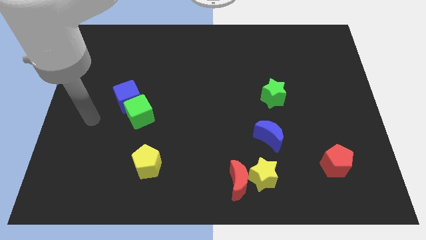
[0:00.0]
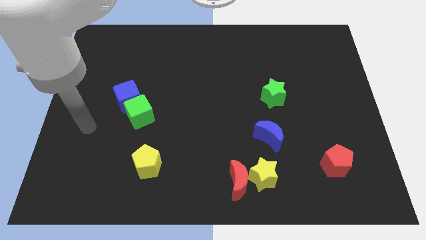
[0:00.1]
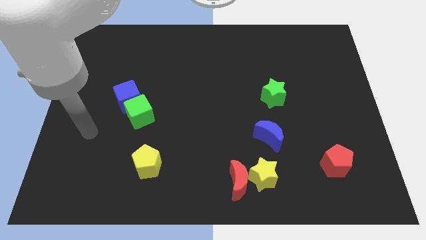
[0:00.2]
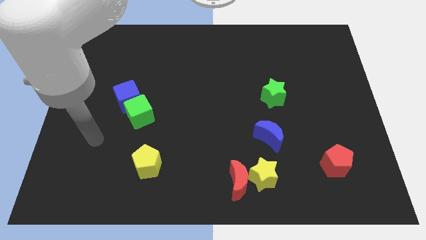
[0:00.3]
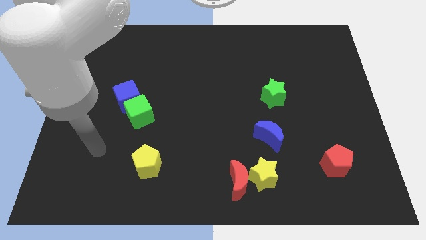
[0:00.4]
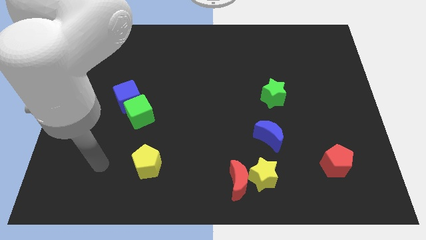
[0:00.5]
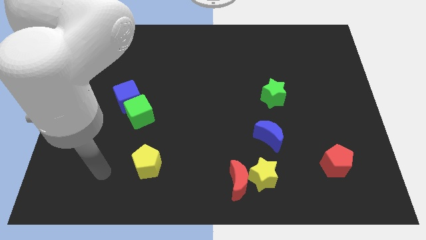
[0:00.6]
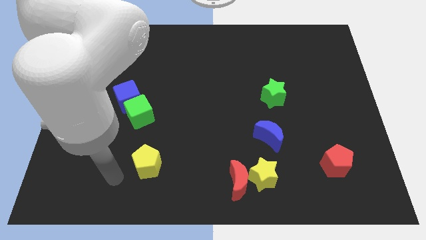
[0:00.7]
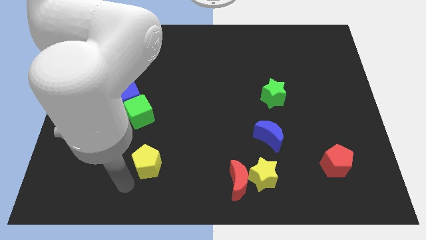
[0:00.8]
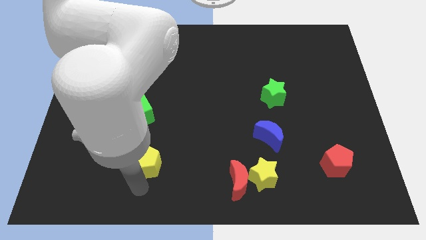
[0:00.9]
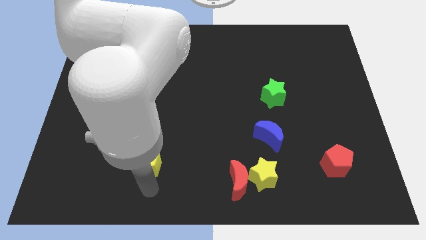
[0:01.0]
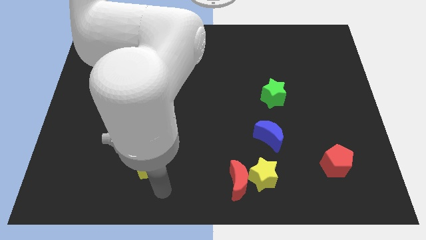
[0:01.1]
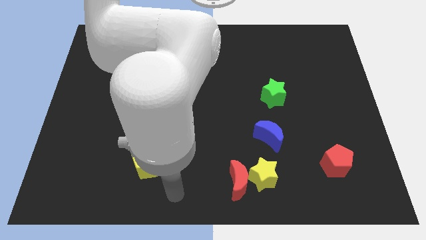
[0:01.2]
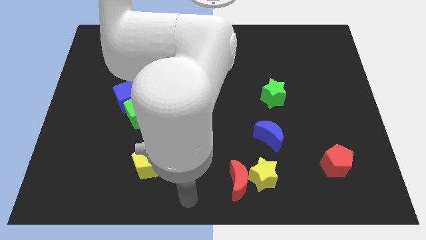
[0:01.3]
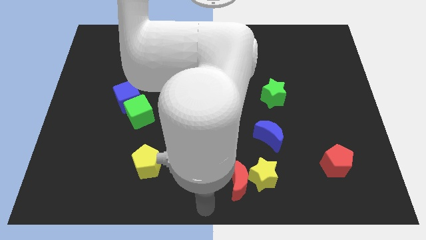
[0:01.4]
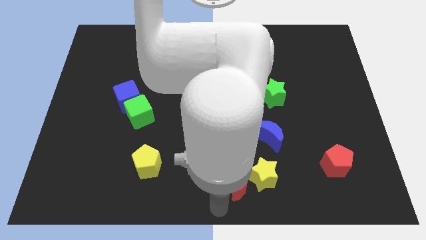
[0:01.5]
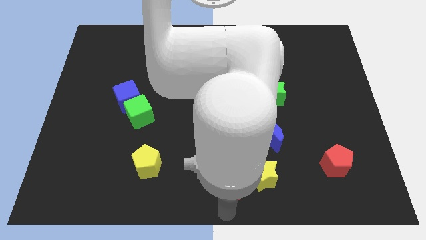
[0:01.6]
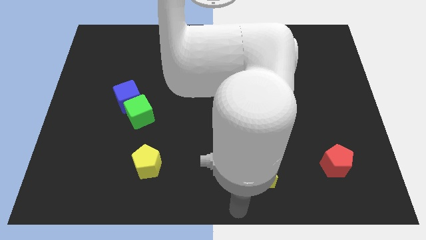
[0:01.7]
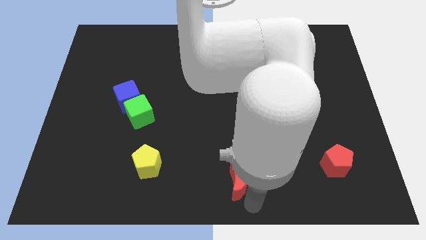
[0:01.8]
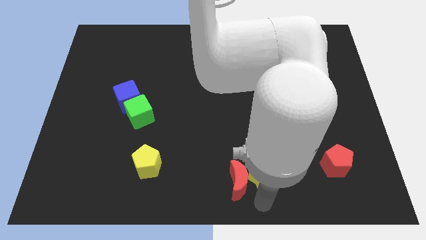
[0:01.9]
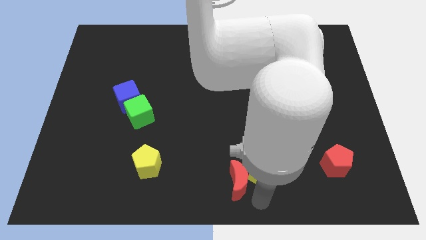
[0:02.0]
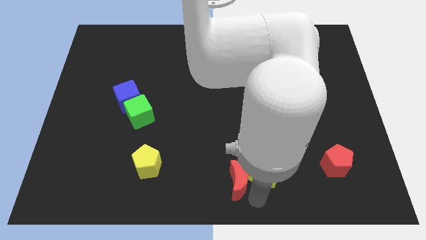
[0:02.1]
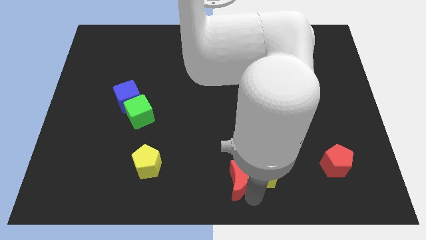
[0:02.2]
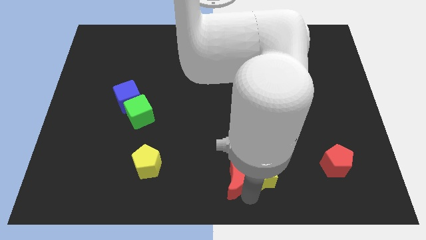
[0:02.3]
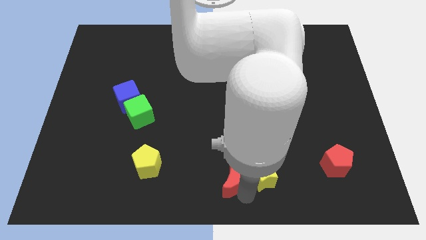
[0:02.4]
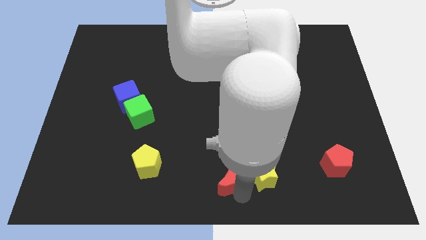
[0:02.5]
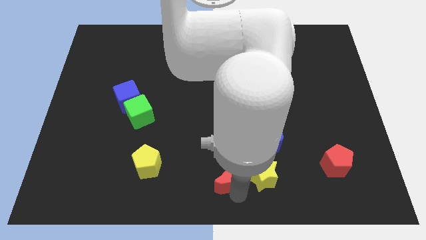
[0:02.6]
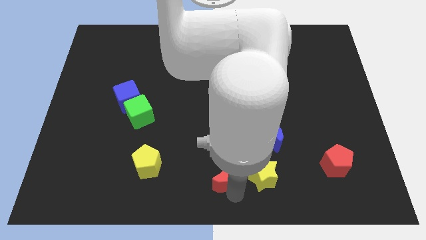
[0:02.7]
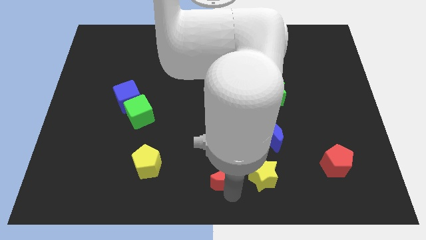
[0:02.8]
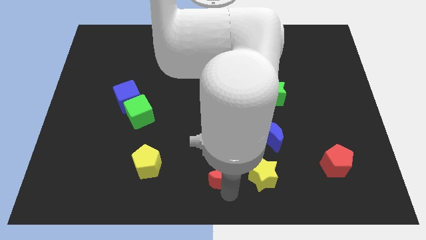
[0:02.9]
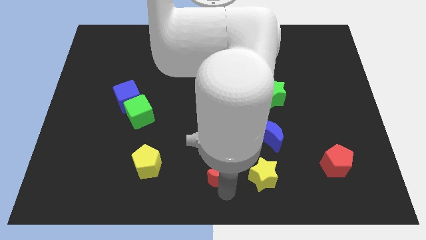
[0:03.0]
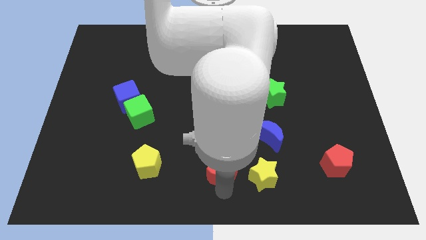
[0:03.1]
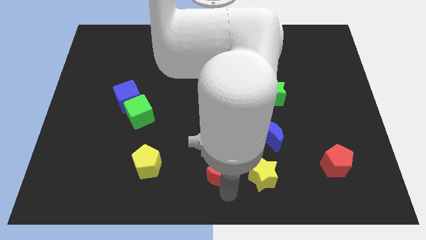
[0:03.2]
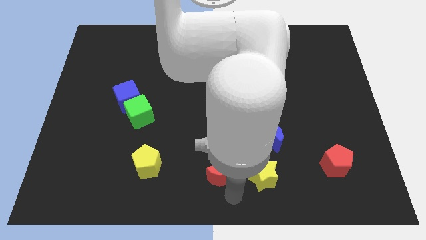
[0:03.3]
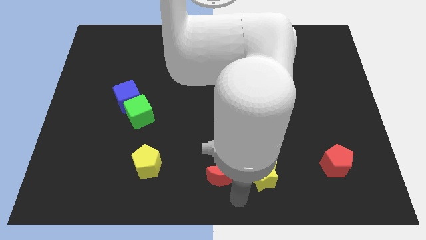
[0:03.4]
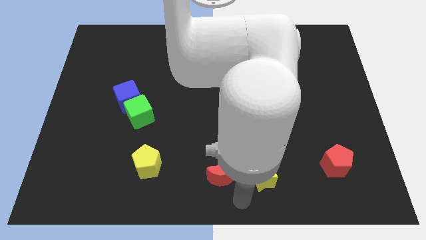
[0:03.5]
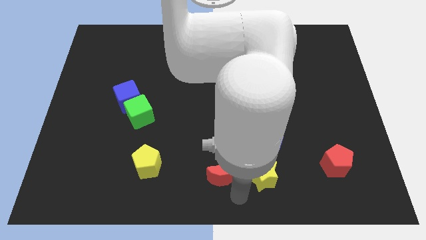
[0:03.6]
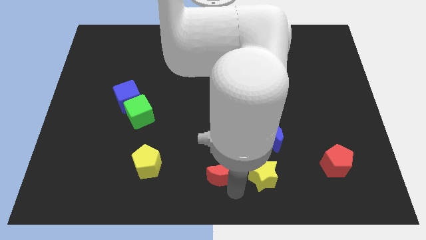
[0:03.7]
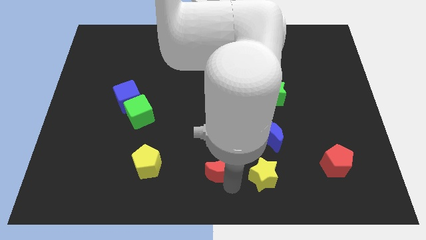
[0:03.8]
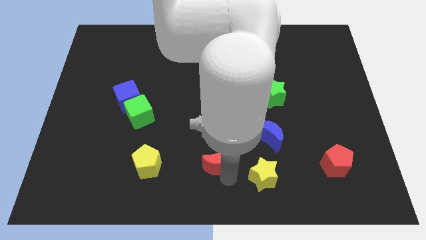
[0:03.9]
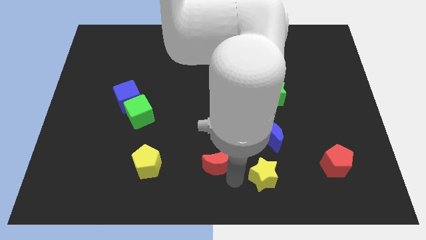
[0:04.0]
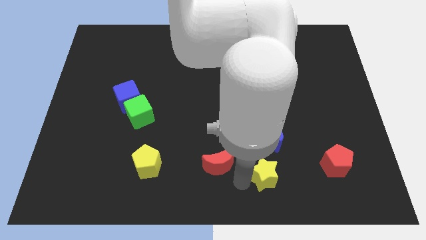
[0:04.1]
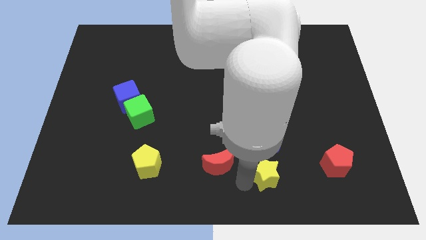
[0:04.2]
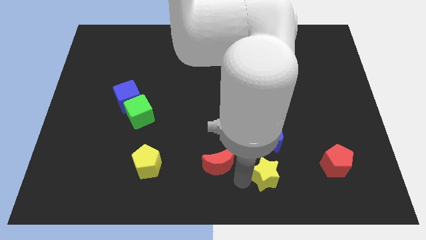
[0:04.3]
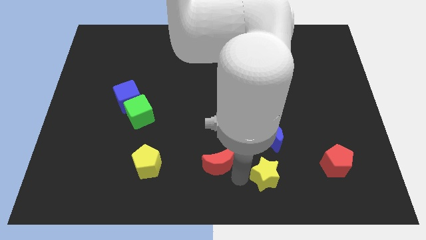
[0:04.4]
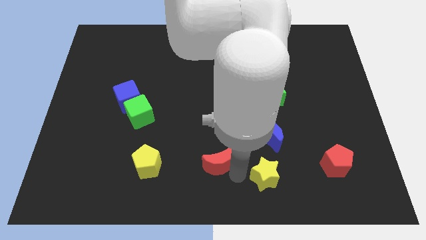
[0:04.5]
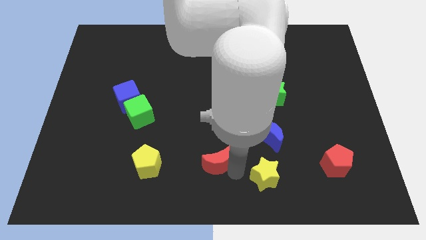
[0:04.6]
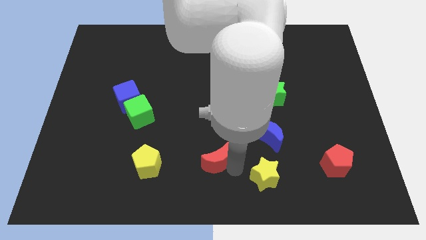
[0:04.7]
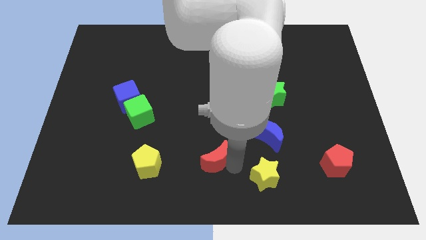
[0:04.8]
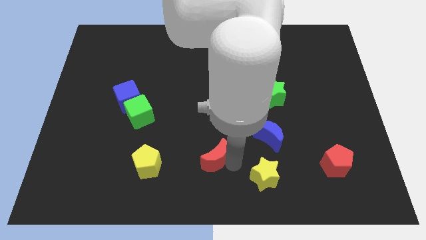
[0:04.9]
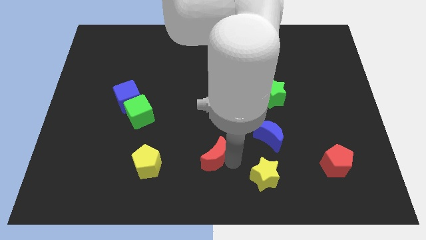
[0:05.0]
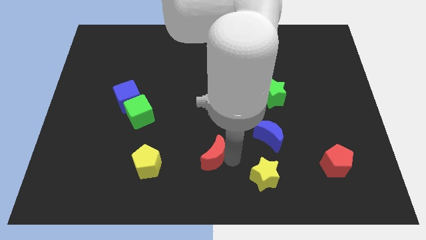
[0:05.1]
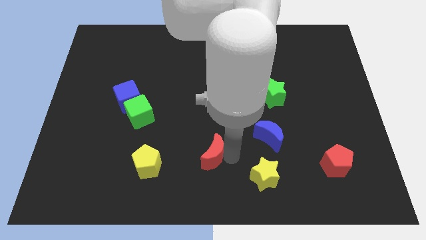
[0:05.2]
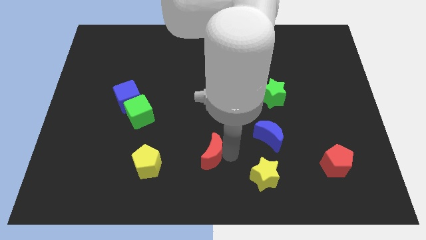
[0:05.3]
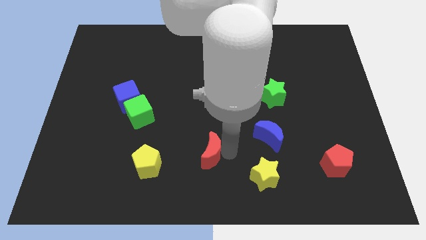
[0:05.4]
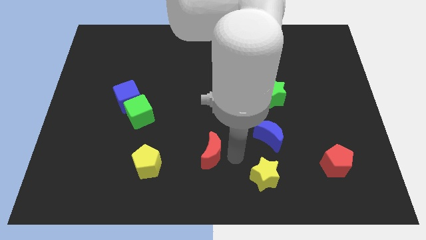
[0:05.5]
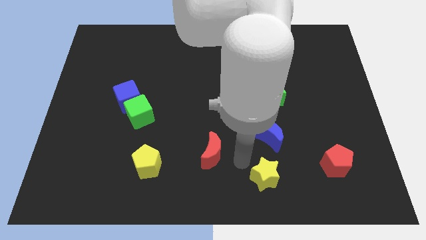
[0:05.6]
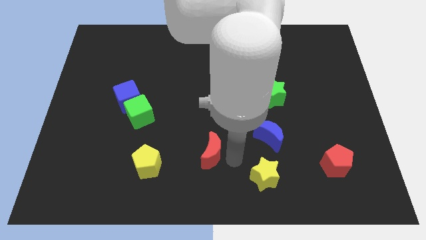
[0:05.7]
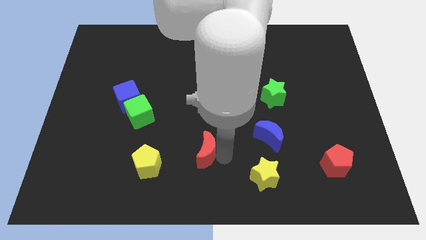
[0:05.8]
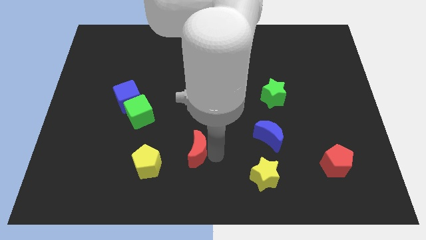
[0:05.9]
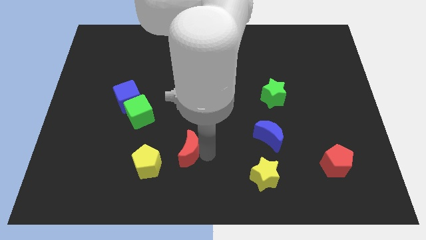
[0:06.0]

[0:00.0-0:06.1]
slide the red moon to the top right of the yellow pentagon

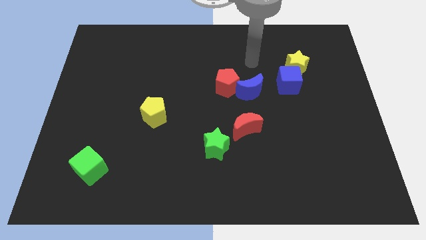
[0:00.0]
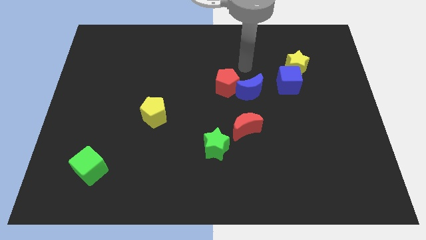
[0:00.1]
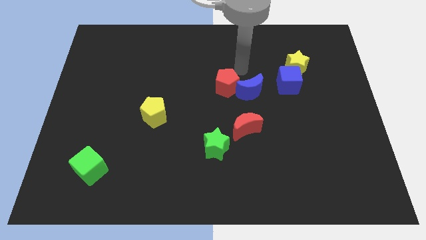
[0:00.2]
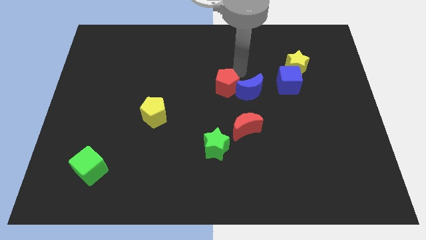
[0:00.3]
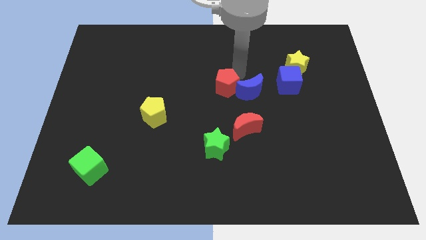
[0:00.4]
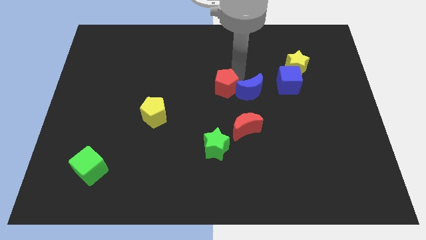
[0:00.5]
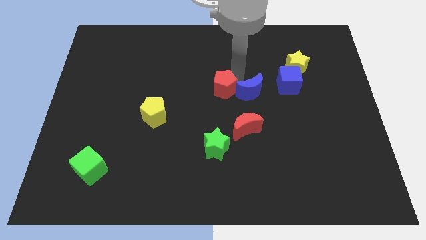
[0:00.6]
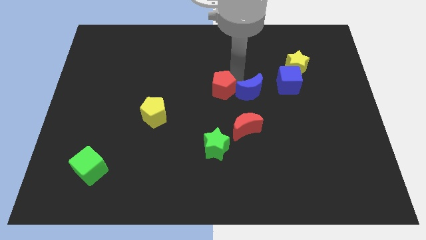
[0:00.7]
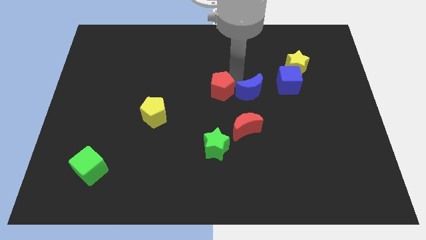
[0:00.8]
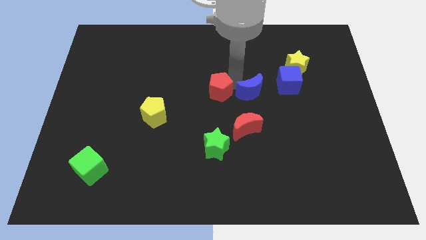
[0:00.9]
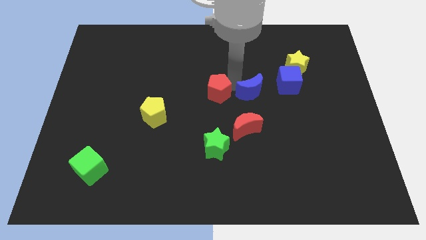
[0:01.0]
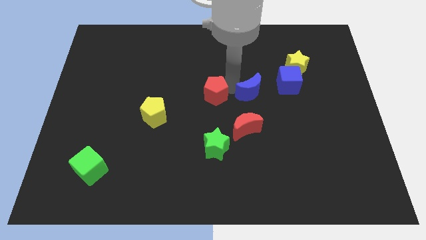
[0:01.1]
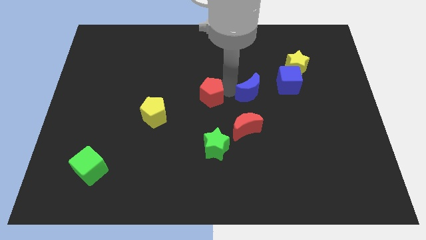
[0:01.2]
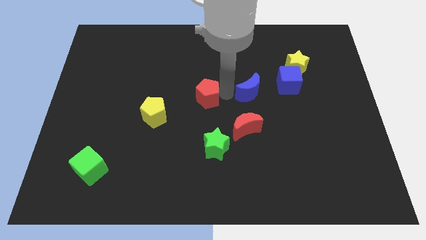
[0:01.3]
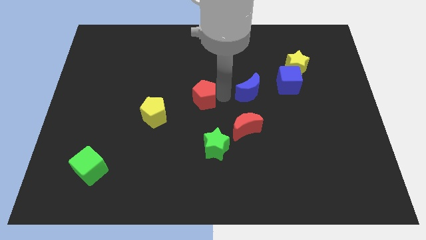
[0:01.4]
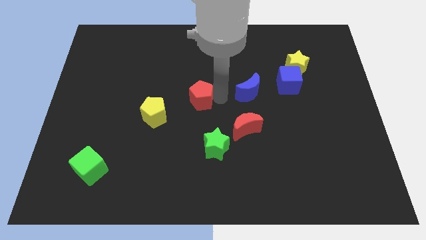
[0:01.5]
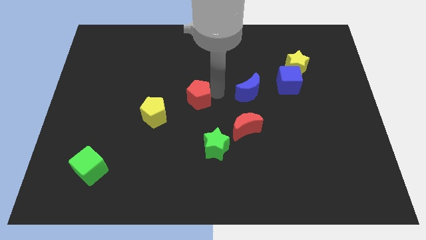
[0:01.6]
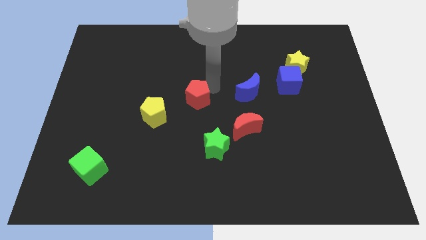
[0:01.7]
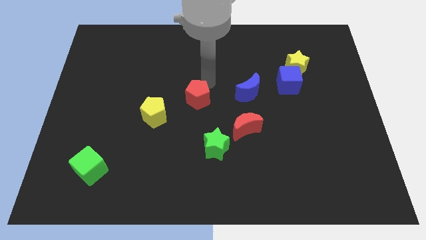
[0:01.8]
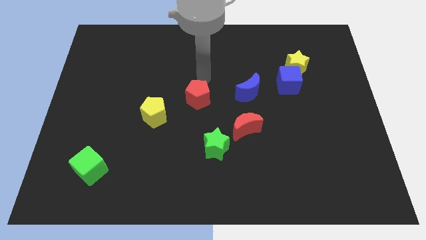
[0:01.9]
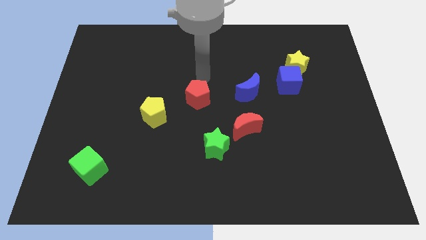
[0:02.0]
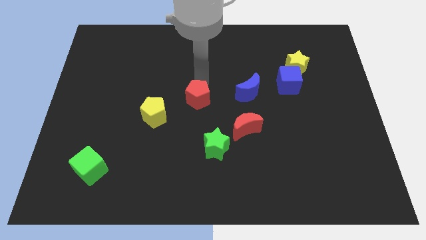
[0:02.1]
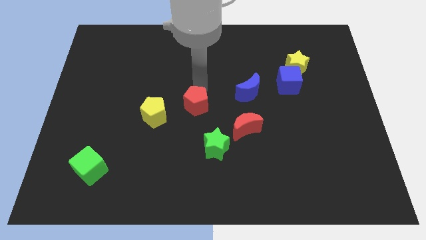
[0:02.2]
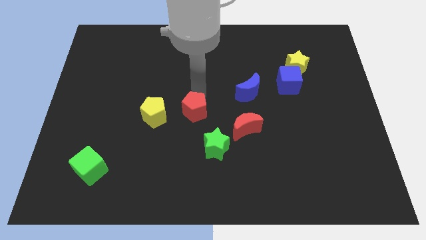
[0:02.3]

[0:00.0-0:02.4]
slide the red pentagon to the top left side of the green star
